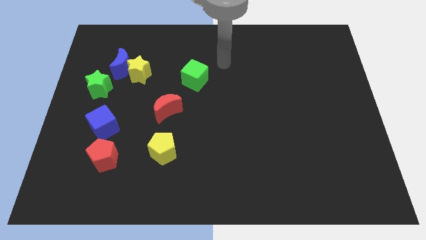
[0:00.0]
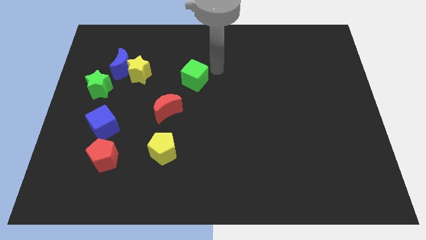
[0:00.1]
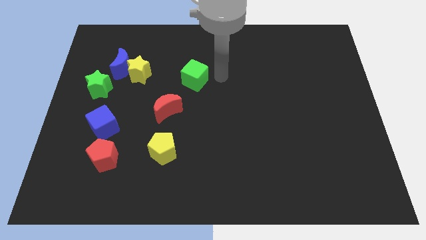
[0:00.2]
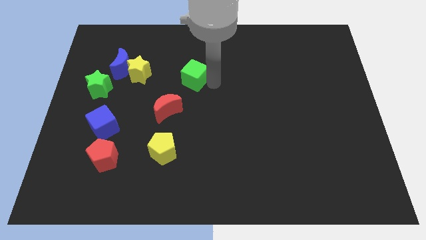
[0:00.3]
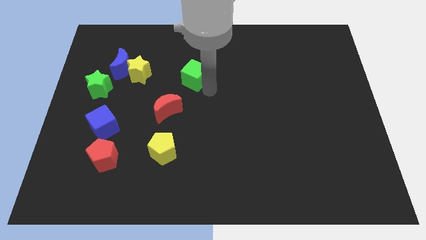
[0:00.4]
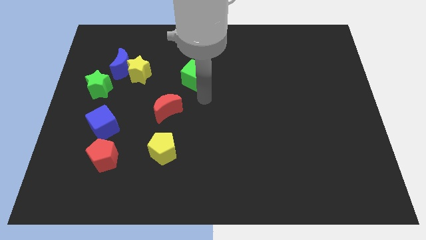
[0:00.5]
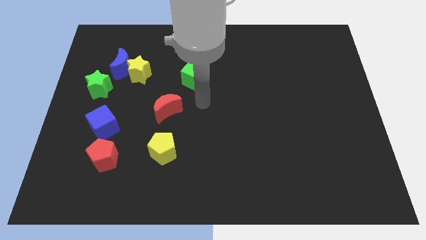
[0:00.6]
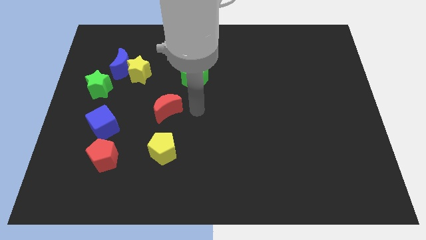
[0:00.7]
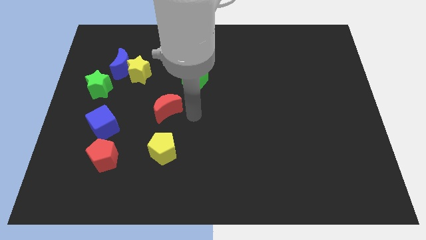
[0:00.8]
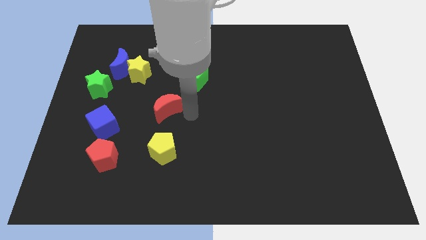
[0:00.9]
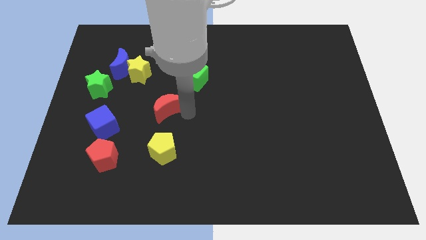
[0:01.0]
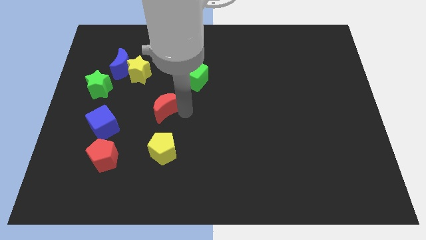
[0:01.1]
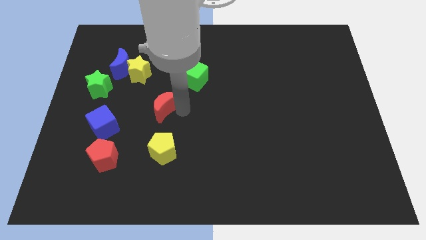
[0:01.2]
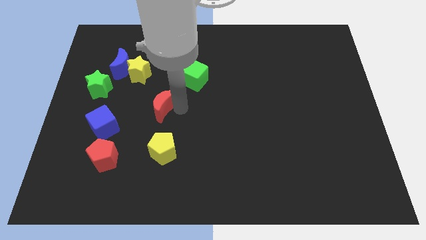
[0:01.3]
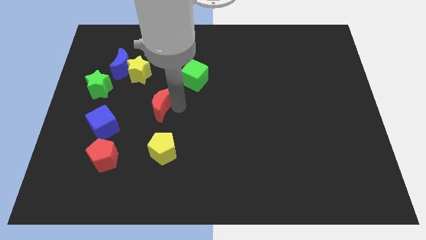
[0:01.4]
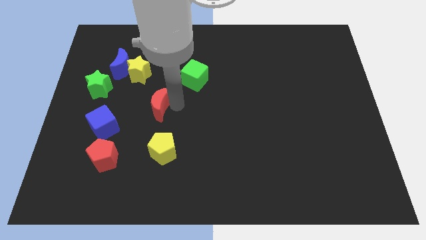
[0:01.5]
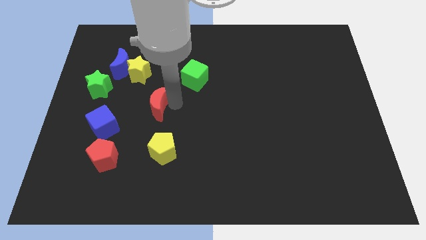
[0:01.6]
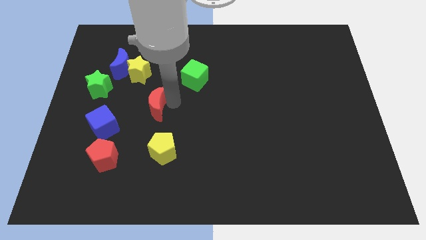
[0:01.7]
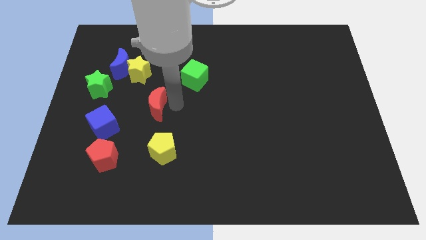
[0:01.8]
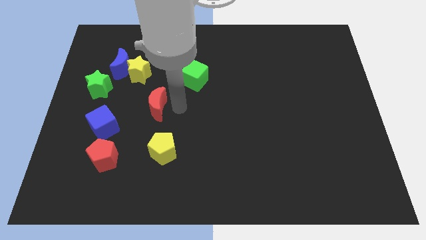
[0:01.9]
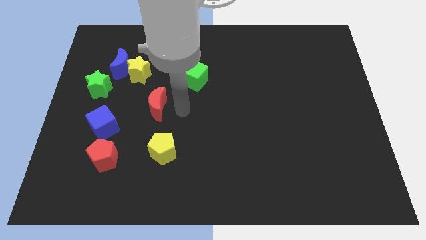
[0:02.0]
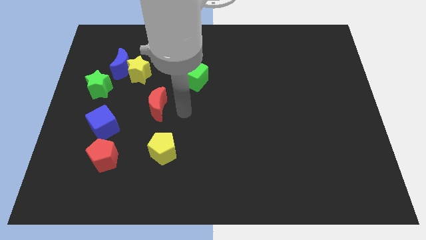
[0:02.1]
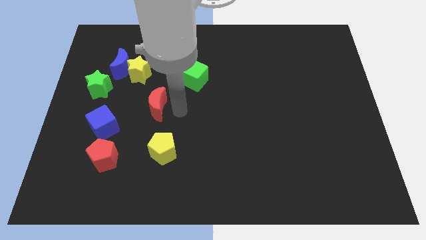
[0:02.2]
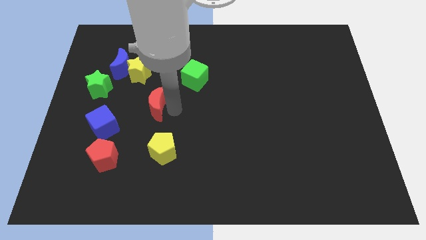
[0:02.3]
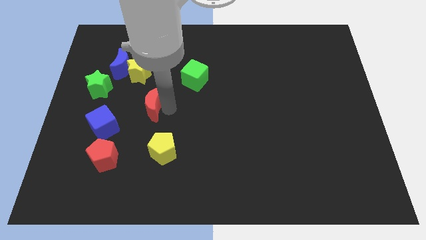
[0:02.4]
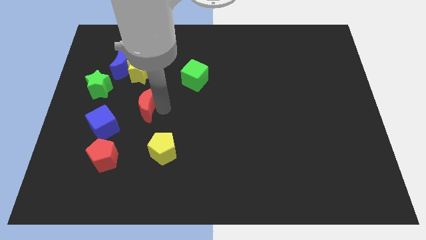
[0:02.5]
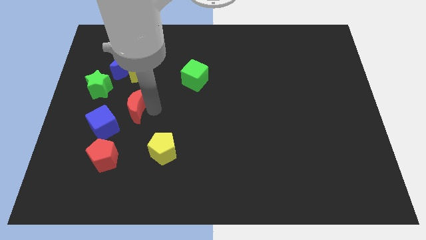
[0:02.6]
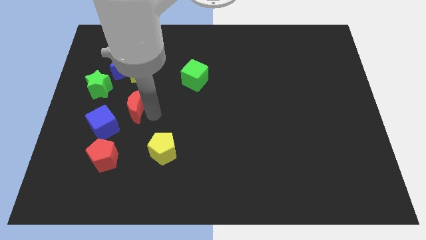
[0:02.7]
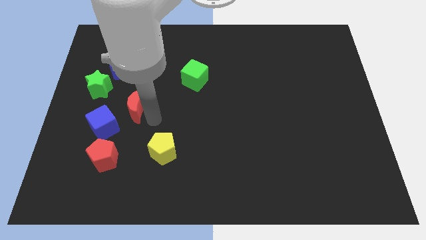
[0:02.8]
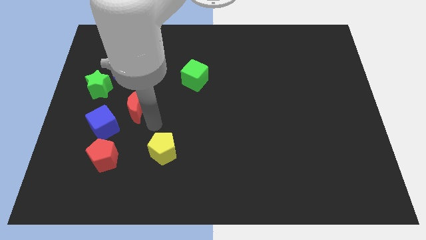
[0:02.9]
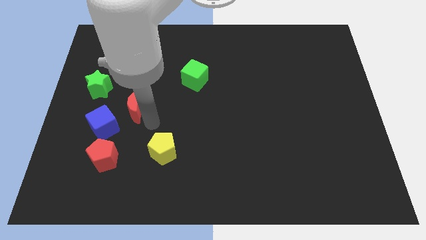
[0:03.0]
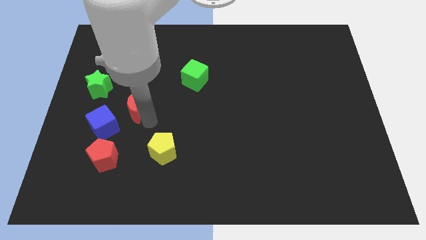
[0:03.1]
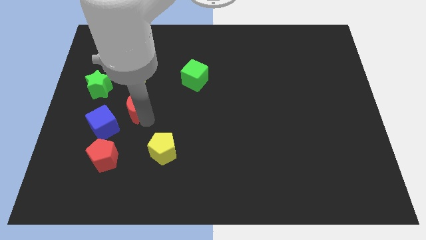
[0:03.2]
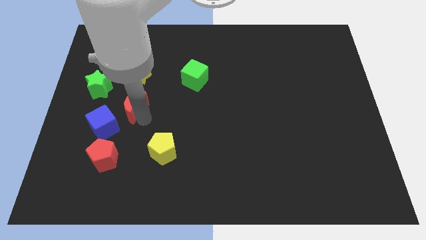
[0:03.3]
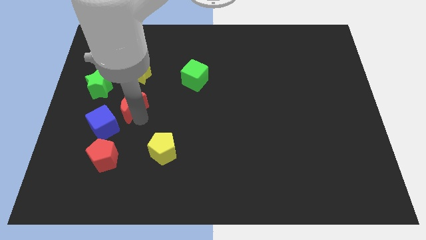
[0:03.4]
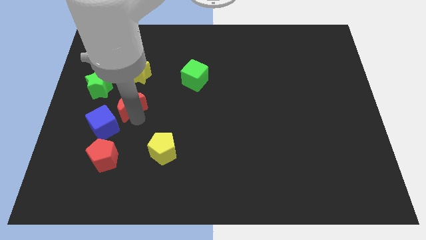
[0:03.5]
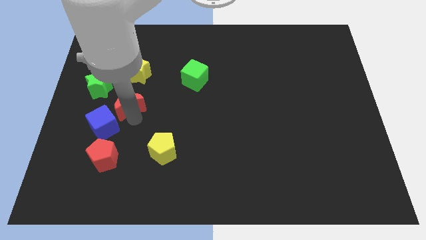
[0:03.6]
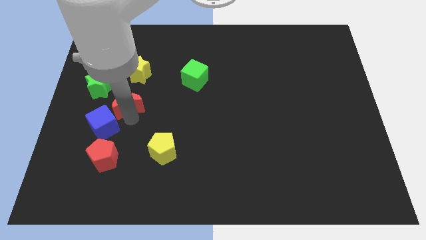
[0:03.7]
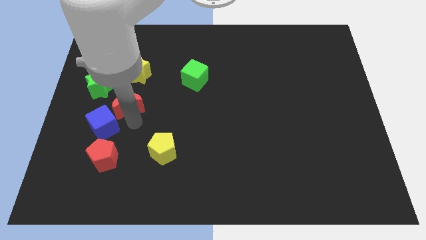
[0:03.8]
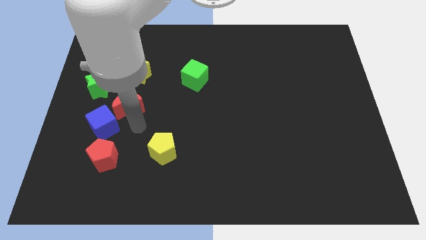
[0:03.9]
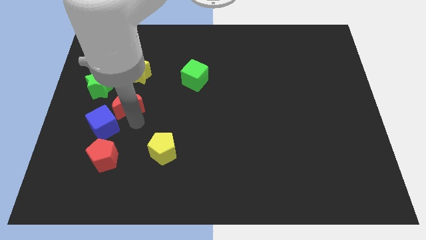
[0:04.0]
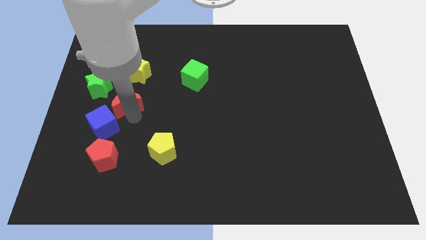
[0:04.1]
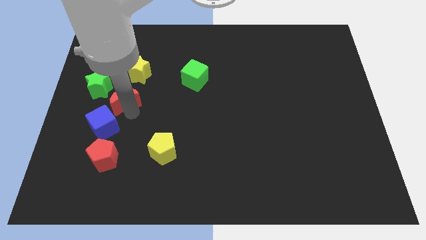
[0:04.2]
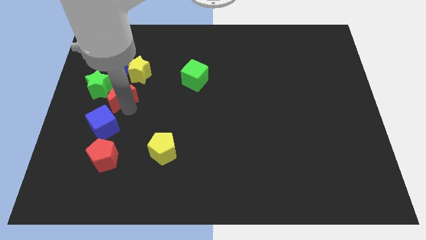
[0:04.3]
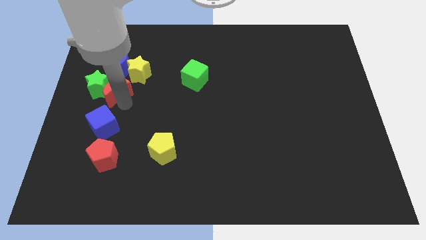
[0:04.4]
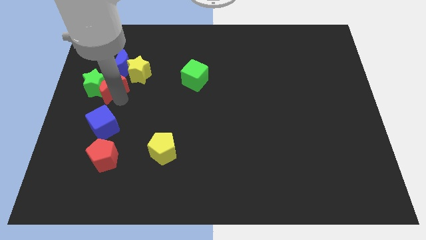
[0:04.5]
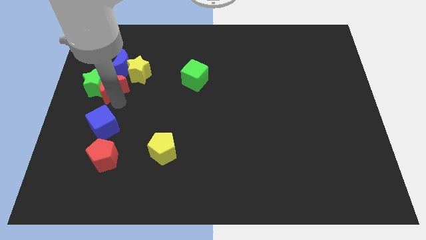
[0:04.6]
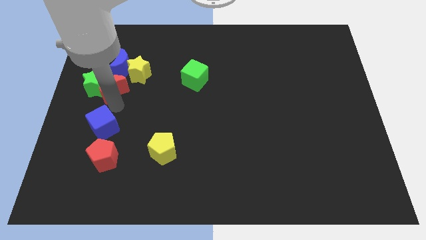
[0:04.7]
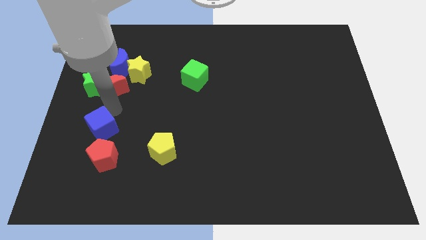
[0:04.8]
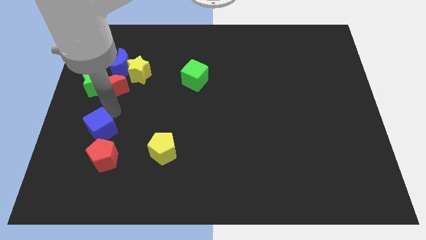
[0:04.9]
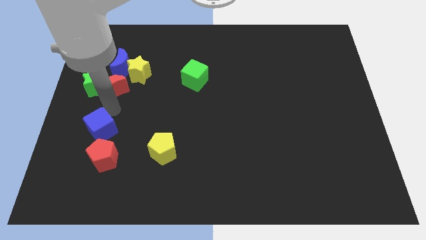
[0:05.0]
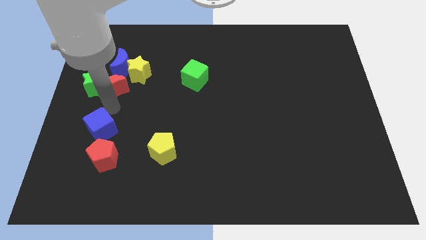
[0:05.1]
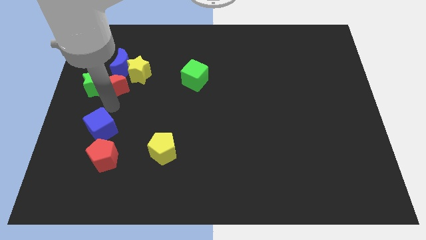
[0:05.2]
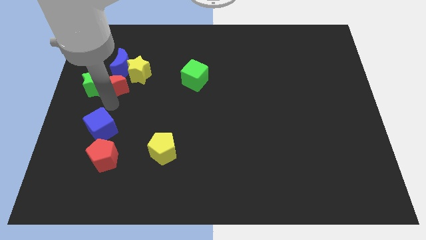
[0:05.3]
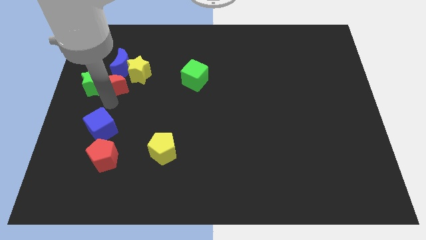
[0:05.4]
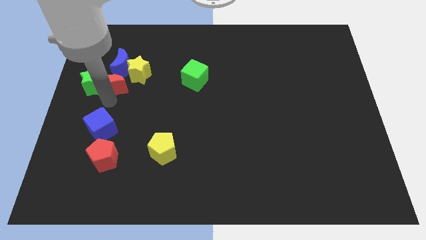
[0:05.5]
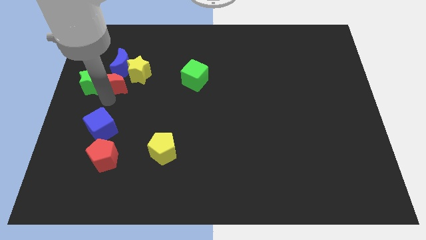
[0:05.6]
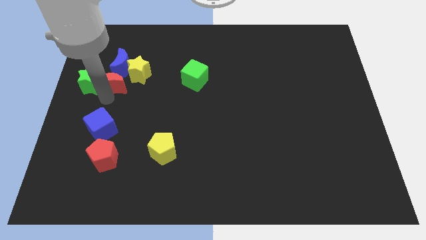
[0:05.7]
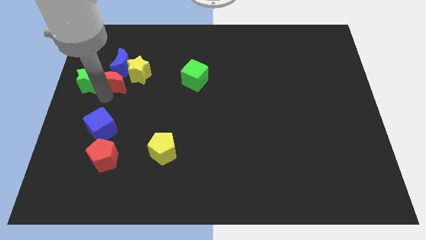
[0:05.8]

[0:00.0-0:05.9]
slide the red moon towards the blue moon

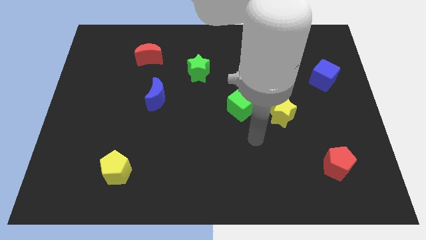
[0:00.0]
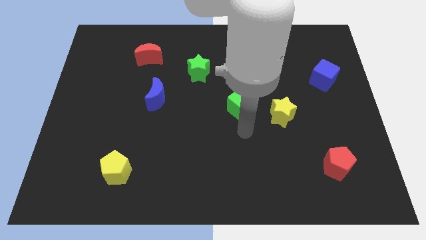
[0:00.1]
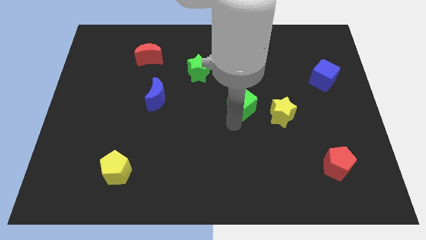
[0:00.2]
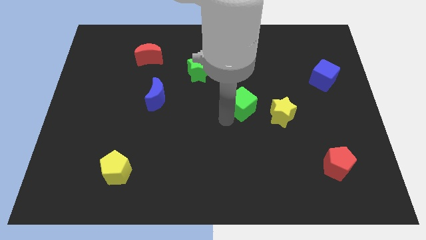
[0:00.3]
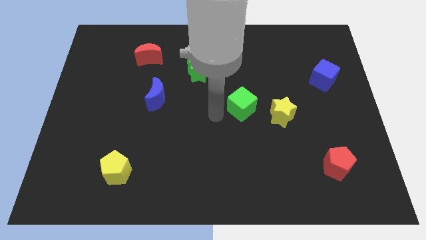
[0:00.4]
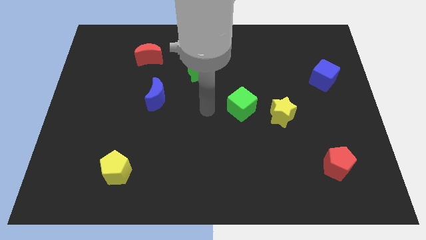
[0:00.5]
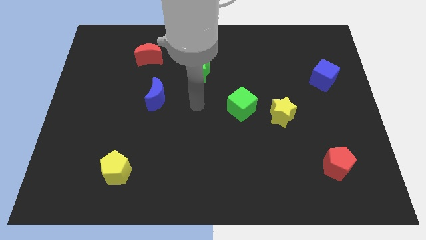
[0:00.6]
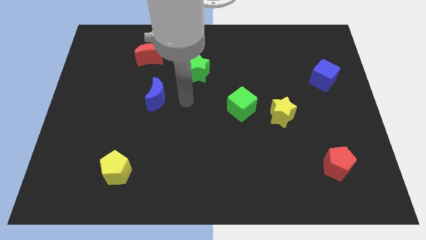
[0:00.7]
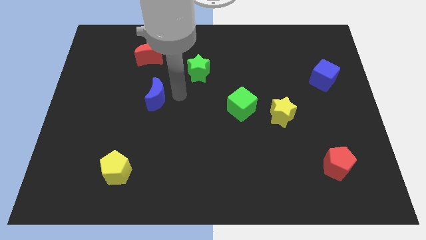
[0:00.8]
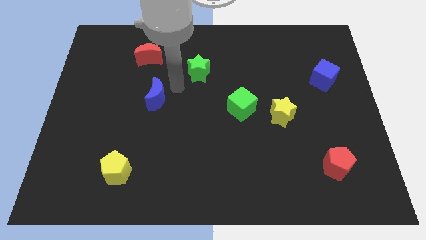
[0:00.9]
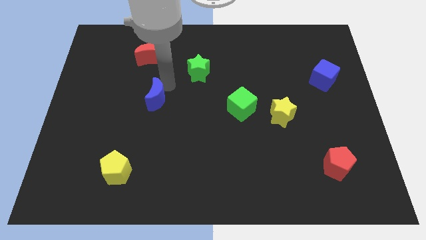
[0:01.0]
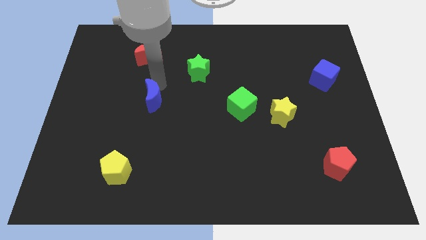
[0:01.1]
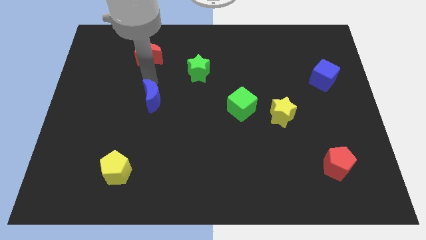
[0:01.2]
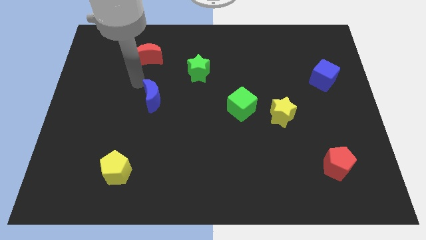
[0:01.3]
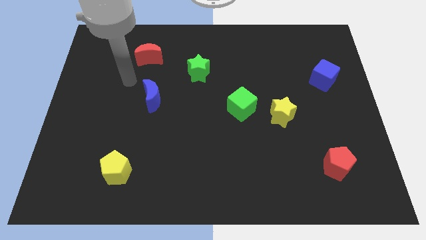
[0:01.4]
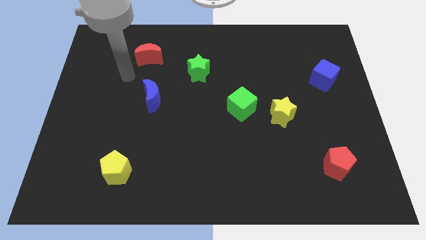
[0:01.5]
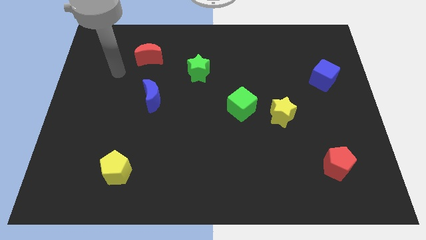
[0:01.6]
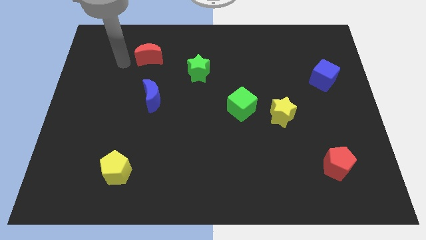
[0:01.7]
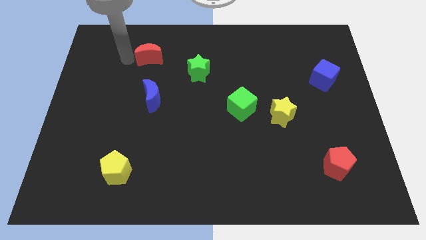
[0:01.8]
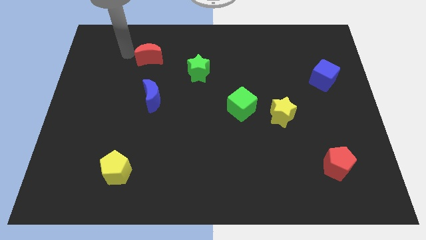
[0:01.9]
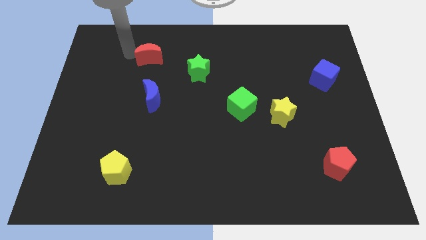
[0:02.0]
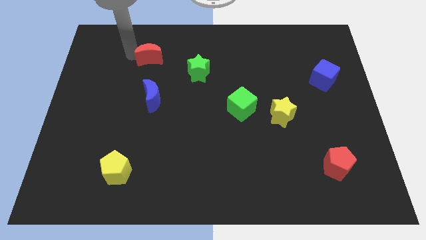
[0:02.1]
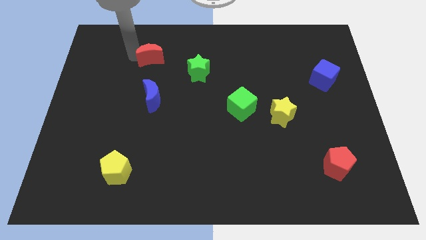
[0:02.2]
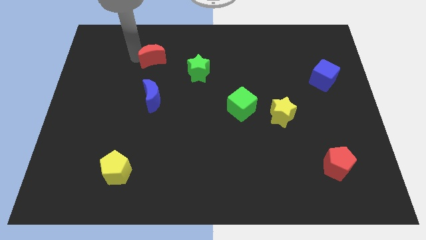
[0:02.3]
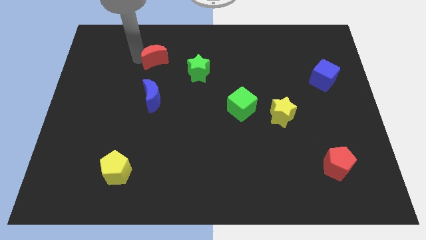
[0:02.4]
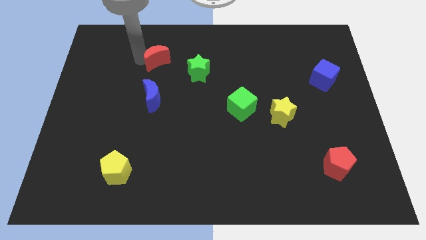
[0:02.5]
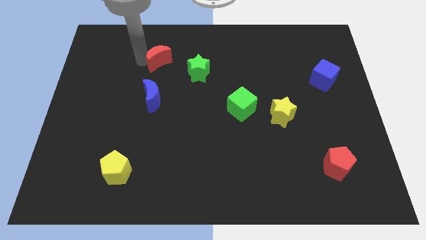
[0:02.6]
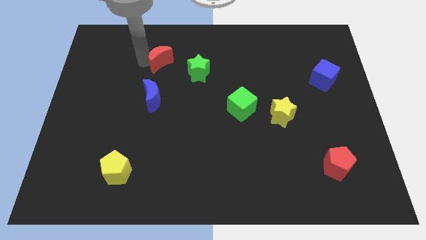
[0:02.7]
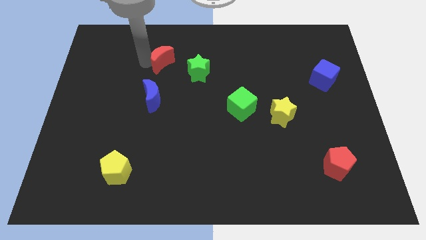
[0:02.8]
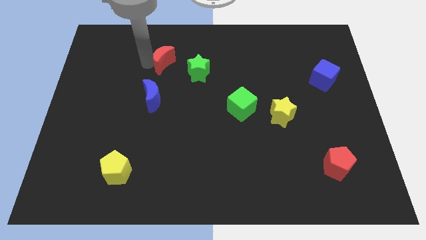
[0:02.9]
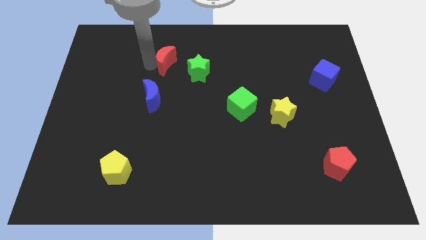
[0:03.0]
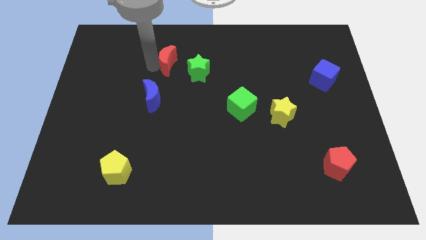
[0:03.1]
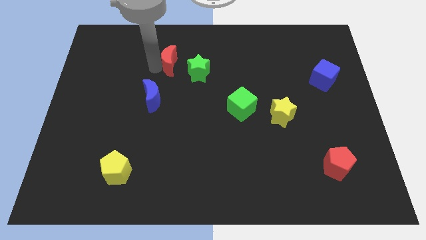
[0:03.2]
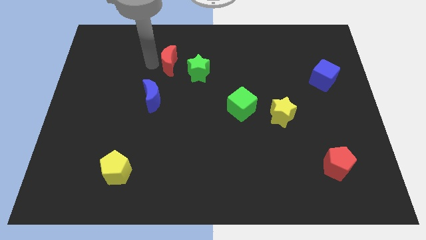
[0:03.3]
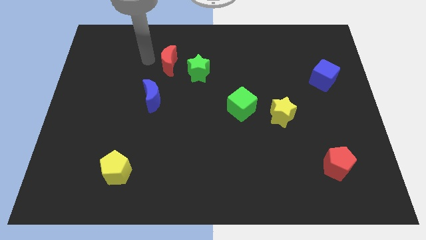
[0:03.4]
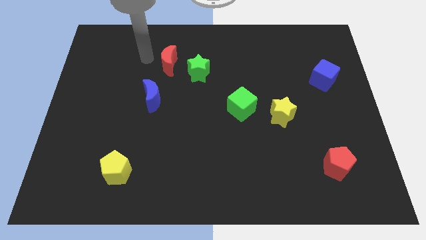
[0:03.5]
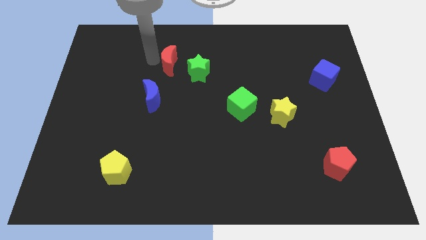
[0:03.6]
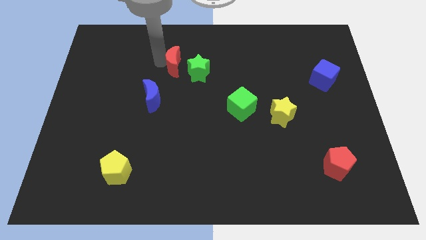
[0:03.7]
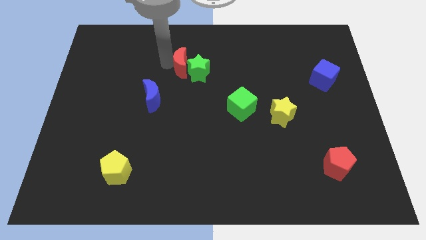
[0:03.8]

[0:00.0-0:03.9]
slide the red moon close to the green star
